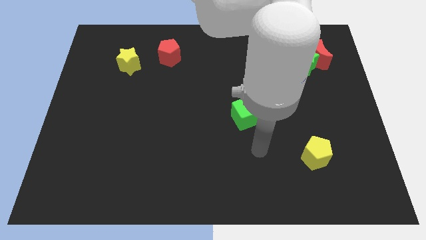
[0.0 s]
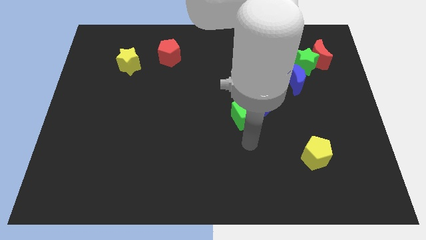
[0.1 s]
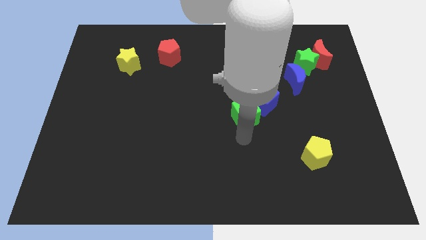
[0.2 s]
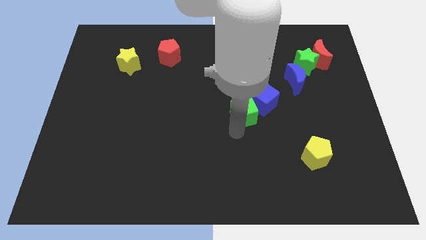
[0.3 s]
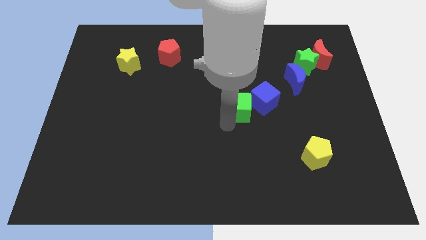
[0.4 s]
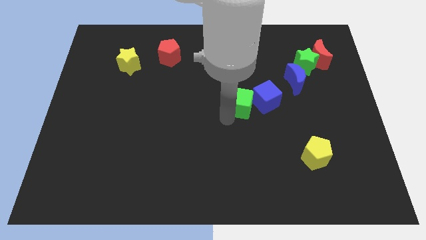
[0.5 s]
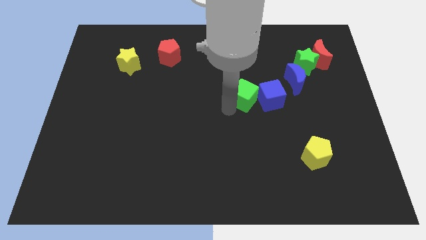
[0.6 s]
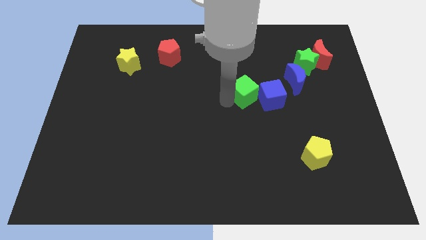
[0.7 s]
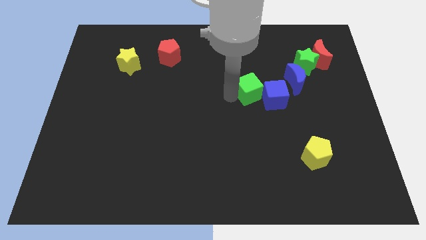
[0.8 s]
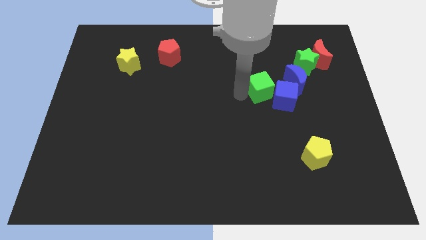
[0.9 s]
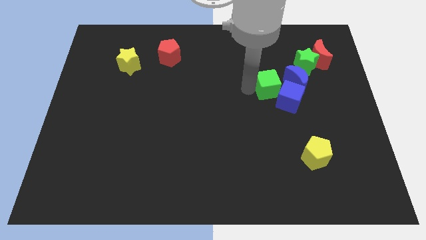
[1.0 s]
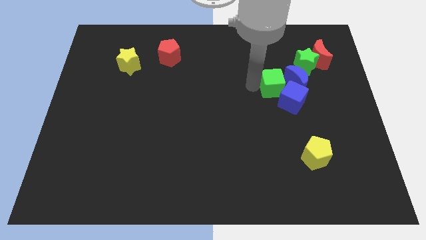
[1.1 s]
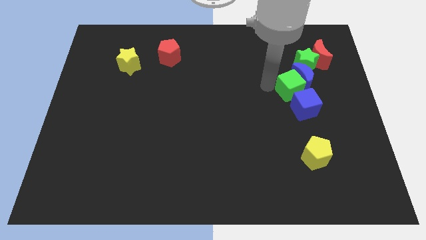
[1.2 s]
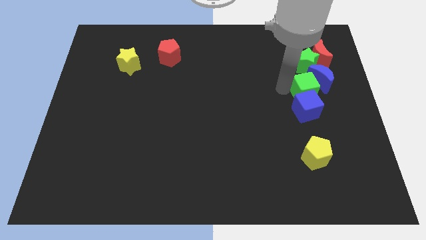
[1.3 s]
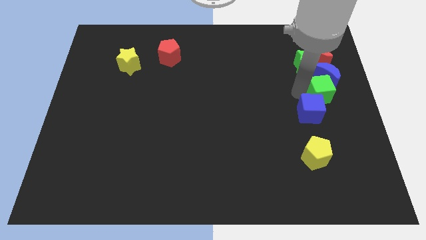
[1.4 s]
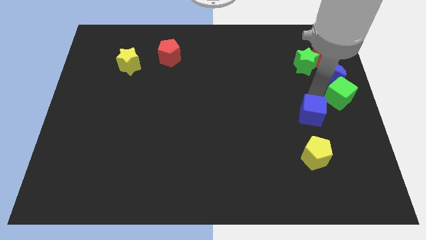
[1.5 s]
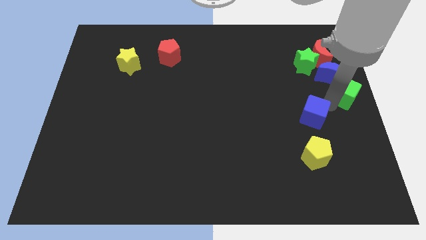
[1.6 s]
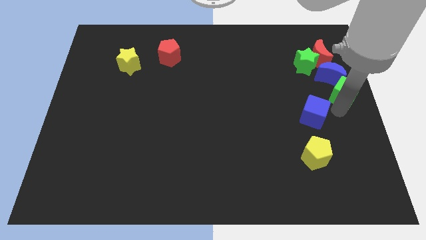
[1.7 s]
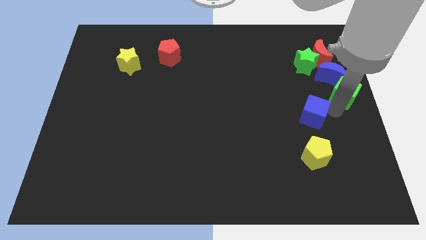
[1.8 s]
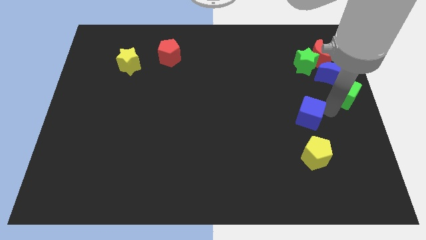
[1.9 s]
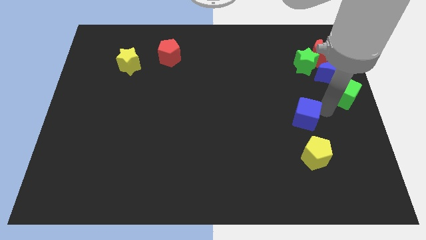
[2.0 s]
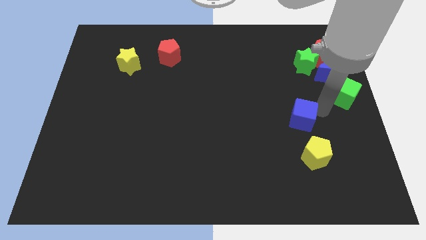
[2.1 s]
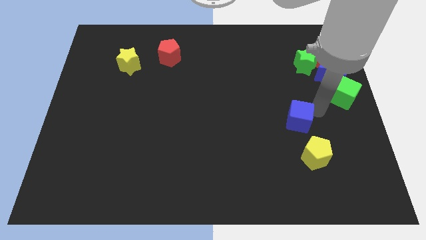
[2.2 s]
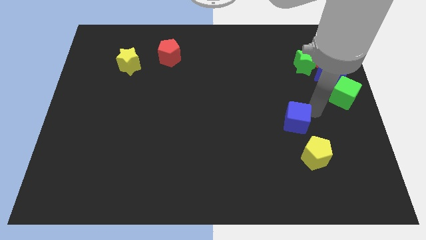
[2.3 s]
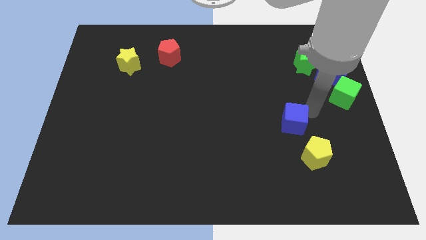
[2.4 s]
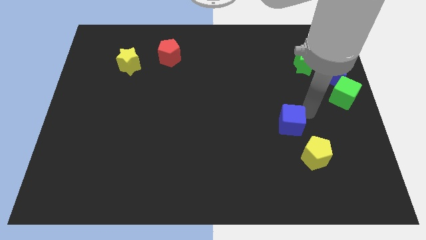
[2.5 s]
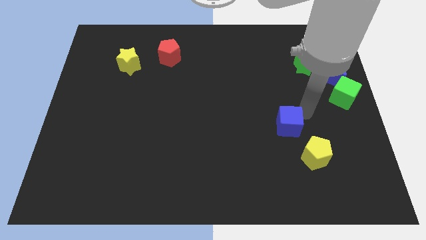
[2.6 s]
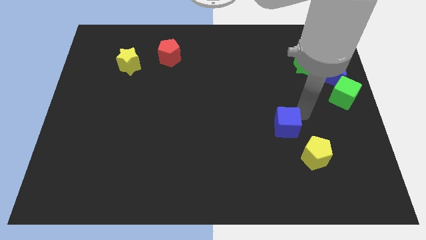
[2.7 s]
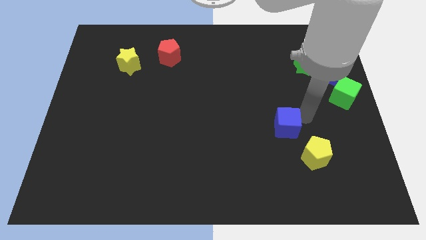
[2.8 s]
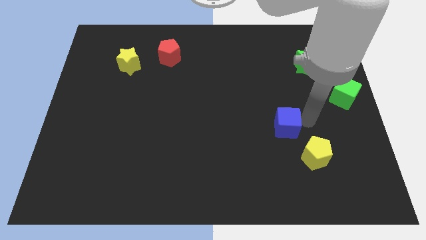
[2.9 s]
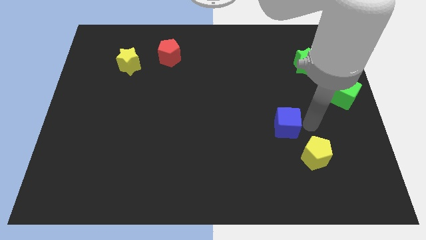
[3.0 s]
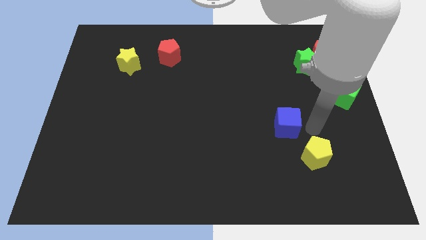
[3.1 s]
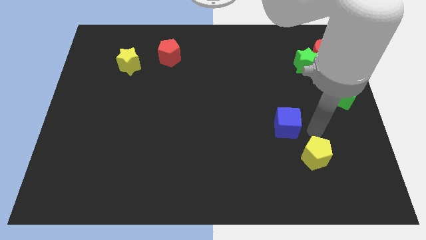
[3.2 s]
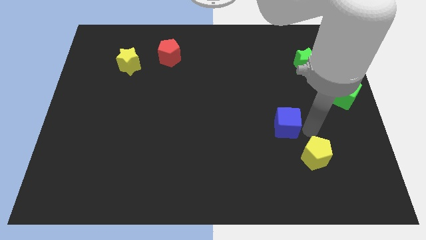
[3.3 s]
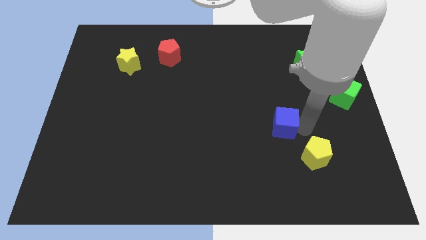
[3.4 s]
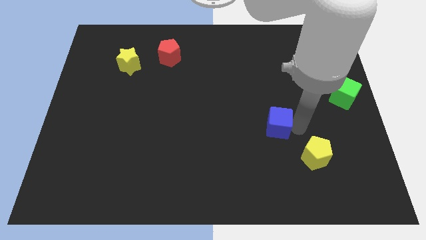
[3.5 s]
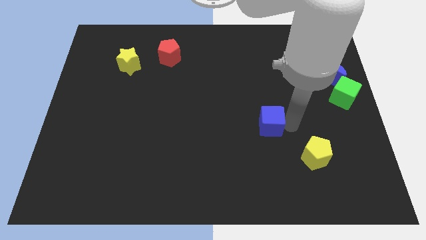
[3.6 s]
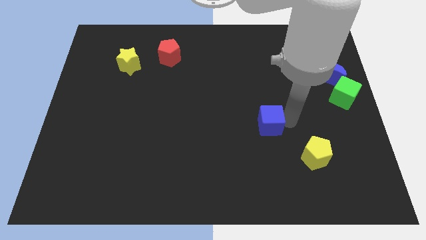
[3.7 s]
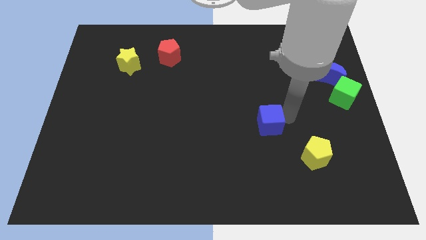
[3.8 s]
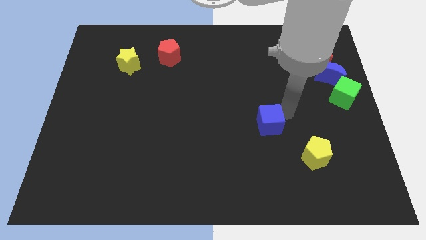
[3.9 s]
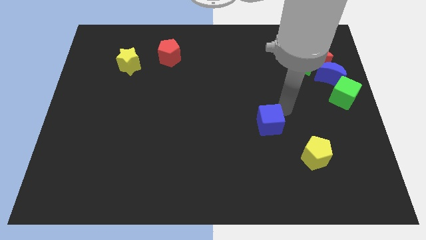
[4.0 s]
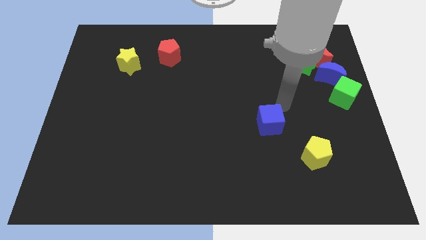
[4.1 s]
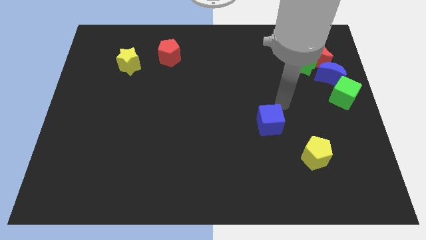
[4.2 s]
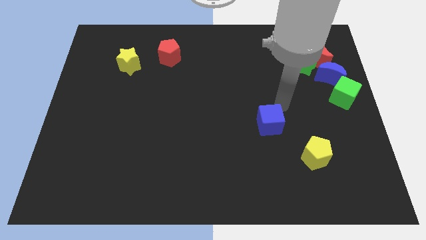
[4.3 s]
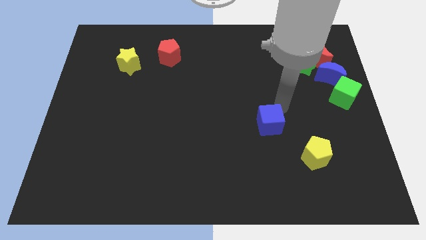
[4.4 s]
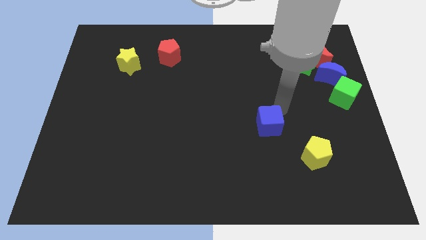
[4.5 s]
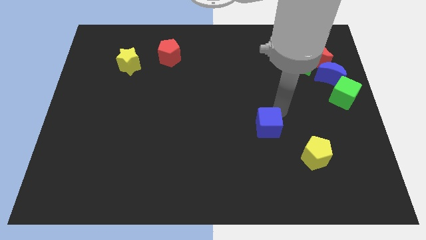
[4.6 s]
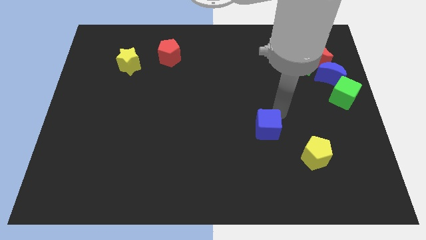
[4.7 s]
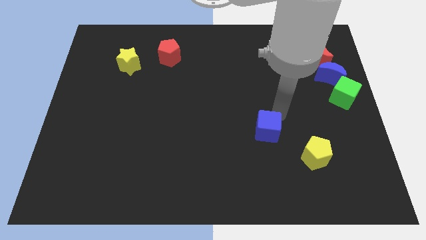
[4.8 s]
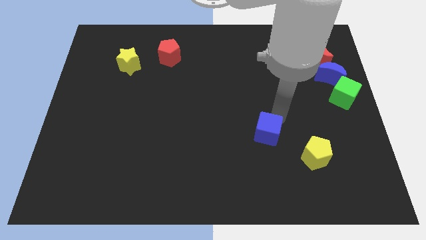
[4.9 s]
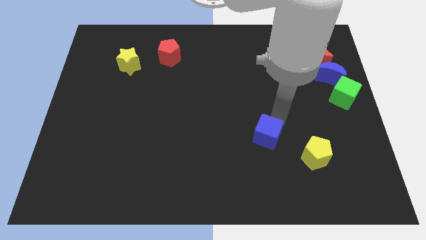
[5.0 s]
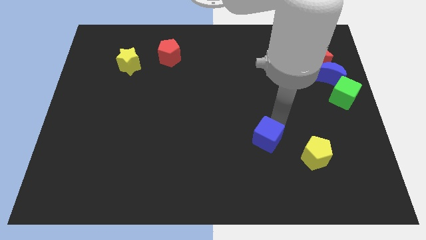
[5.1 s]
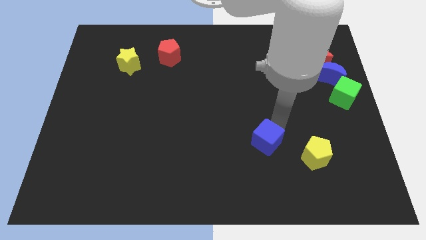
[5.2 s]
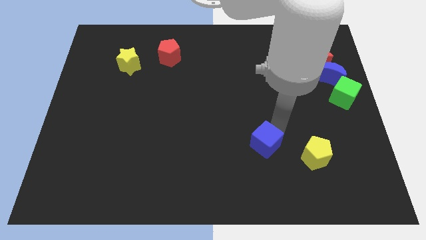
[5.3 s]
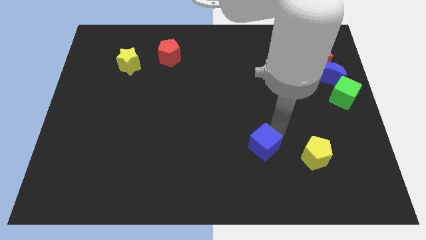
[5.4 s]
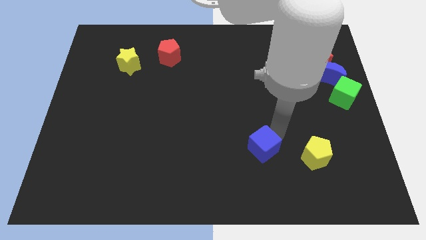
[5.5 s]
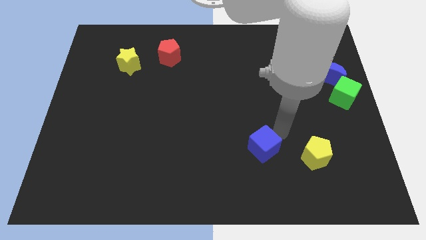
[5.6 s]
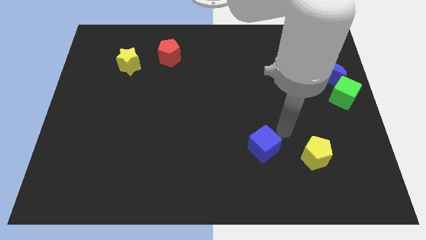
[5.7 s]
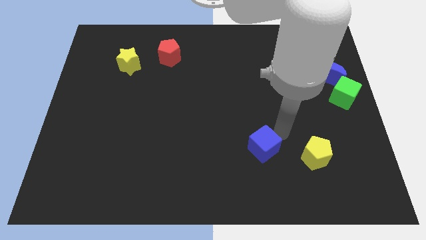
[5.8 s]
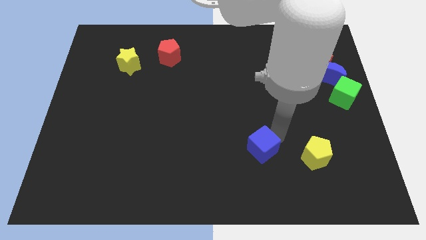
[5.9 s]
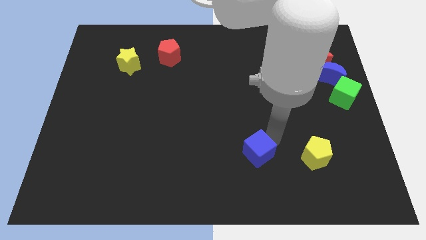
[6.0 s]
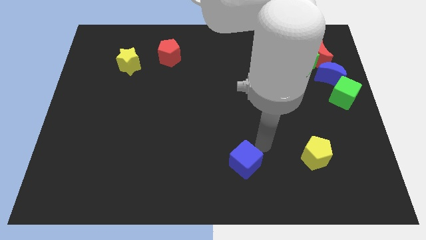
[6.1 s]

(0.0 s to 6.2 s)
put the blue cube to the bottom side
